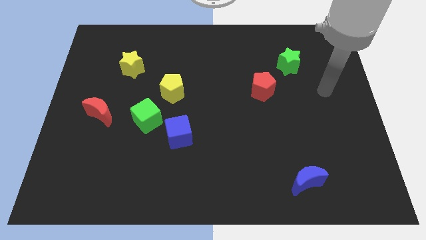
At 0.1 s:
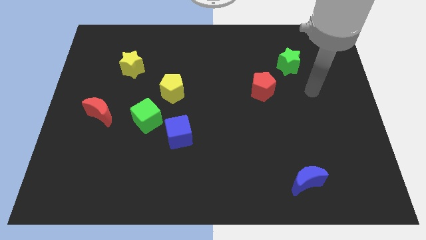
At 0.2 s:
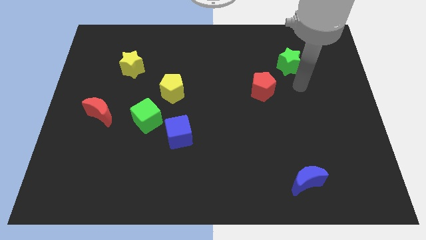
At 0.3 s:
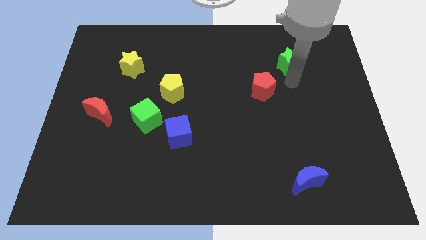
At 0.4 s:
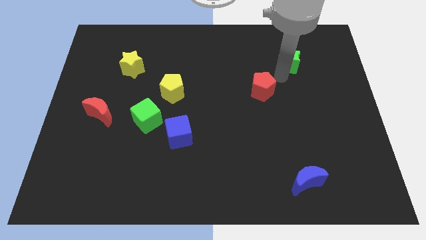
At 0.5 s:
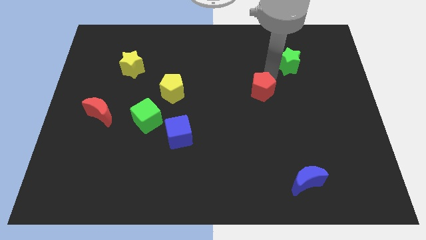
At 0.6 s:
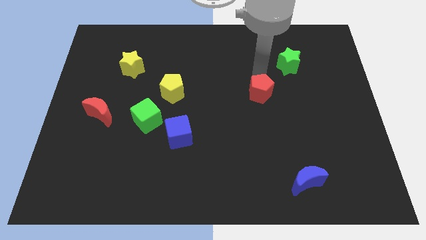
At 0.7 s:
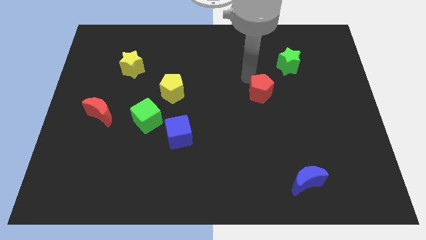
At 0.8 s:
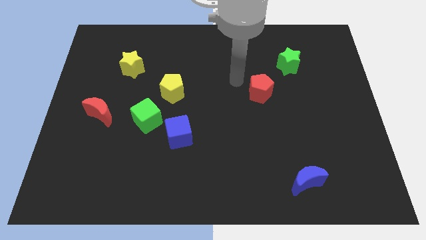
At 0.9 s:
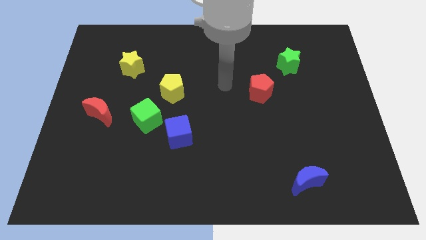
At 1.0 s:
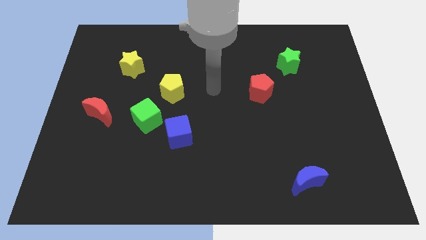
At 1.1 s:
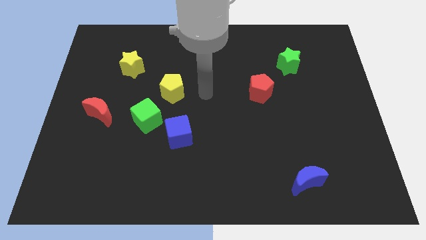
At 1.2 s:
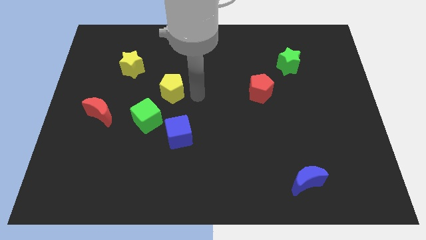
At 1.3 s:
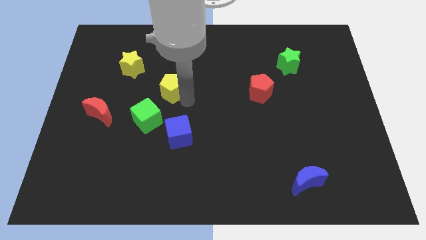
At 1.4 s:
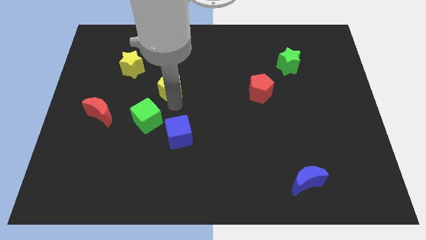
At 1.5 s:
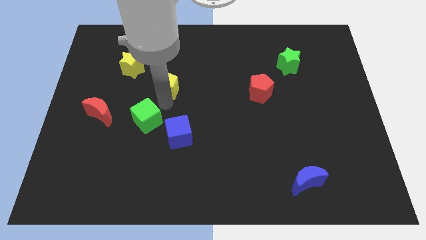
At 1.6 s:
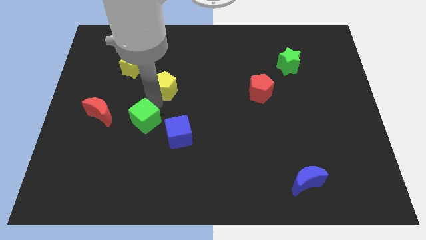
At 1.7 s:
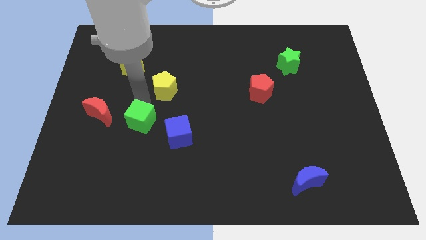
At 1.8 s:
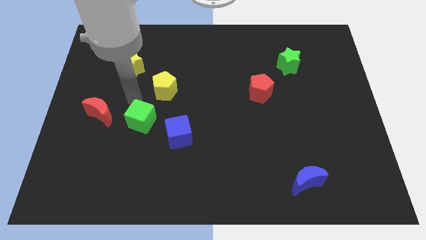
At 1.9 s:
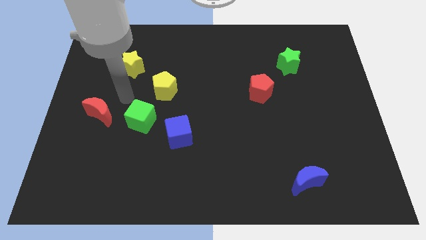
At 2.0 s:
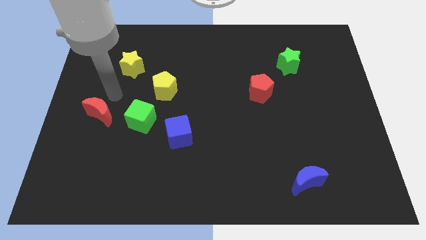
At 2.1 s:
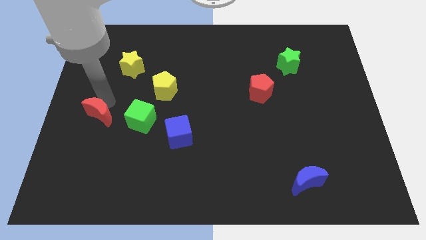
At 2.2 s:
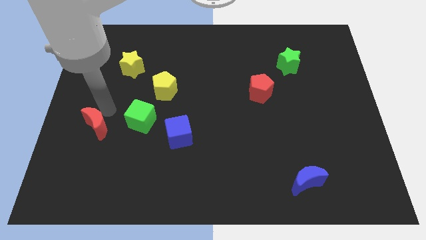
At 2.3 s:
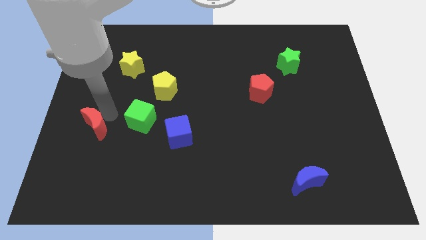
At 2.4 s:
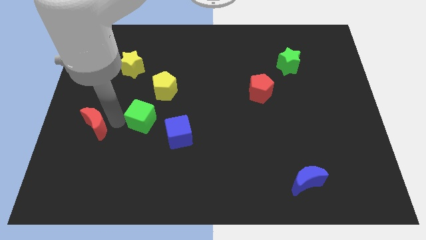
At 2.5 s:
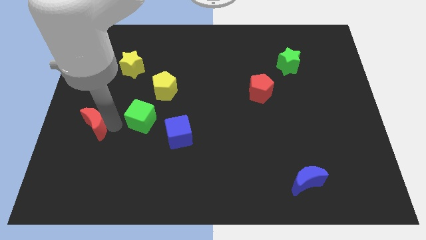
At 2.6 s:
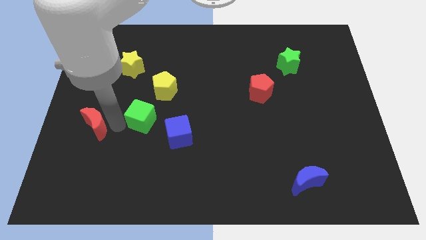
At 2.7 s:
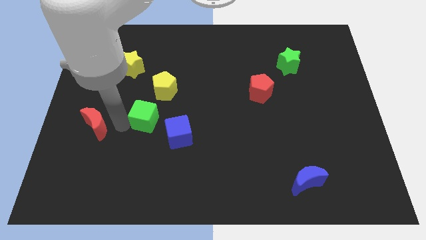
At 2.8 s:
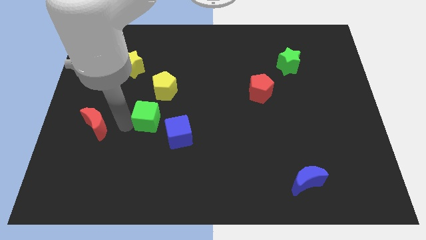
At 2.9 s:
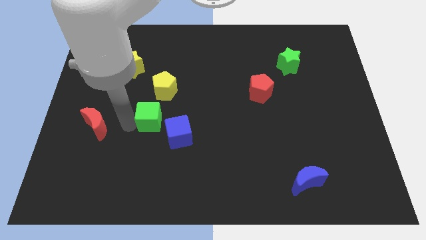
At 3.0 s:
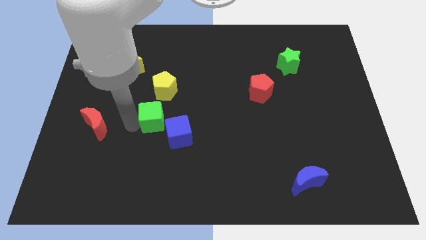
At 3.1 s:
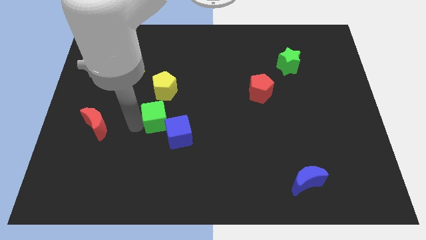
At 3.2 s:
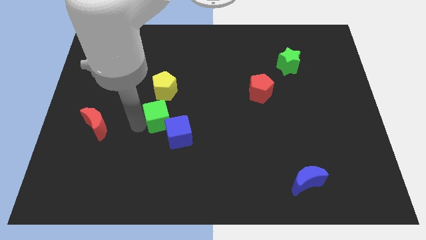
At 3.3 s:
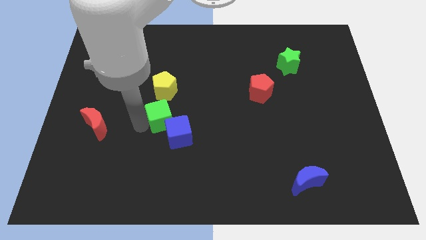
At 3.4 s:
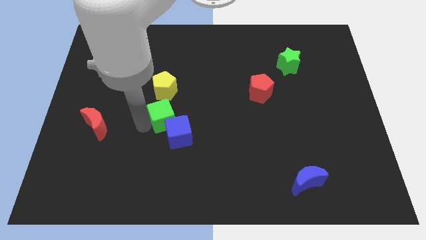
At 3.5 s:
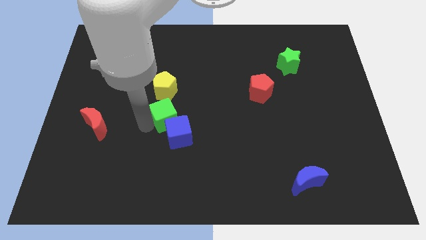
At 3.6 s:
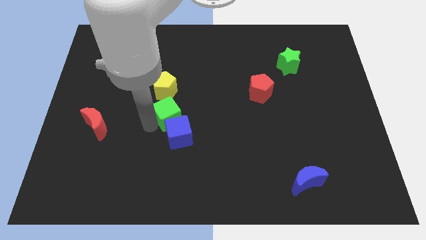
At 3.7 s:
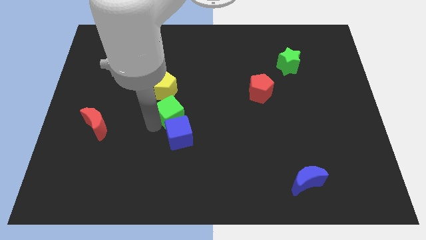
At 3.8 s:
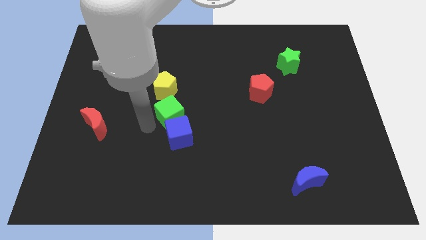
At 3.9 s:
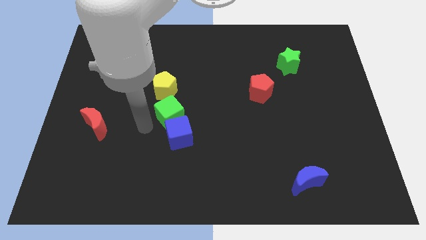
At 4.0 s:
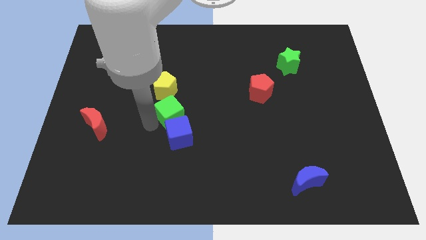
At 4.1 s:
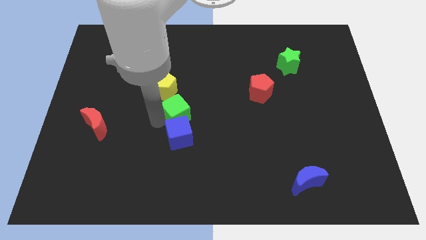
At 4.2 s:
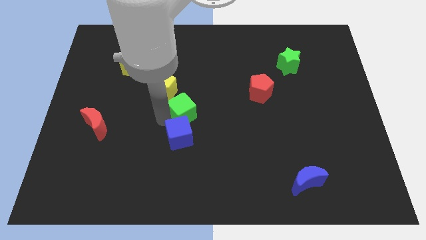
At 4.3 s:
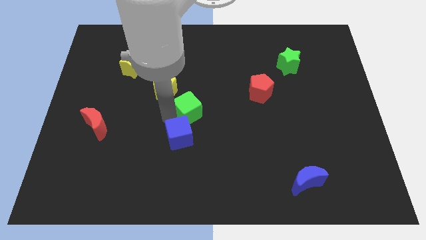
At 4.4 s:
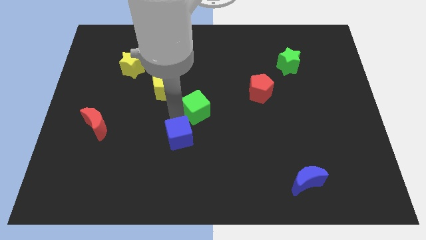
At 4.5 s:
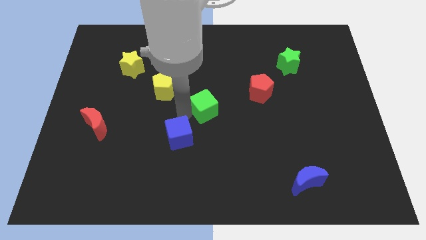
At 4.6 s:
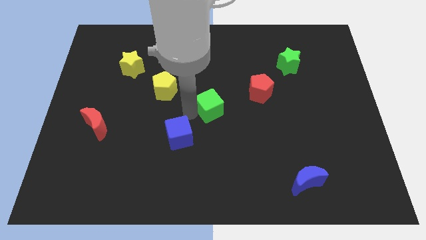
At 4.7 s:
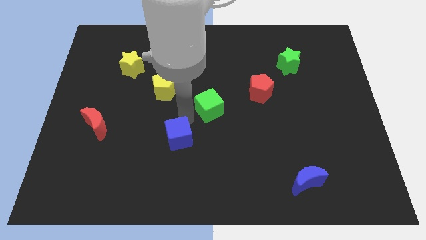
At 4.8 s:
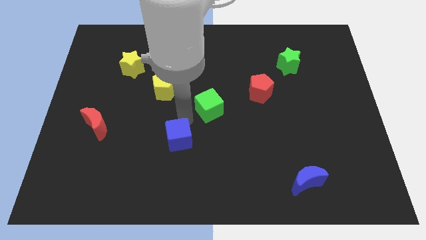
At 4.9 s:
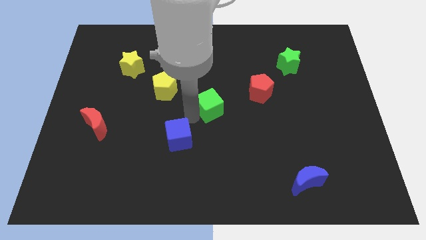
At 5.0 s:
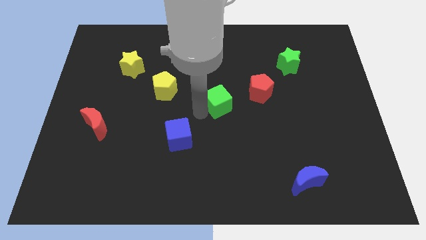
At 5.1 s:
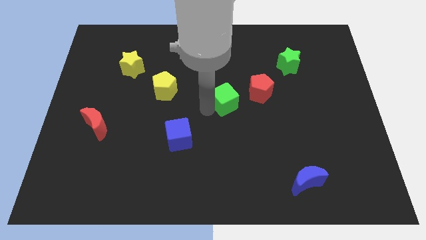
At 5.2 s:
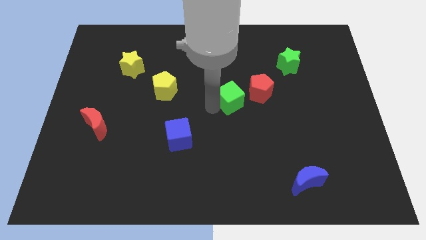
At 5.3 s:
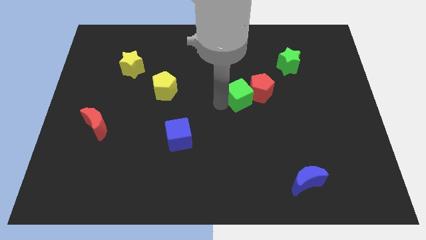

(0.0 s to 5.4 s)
move the green cube towards the red pentagon

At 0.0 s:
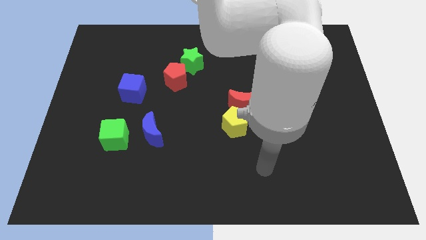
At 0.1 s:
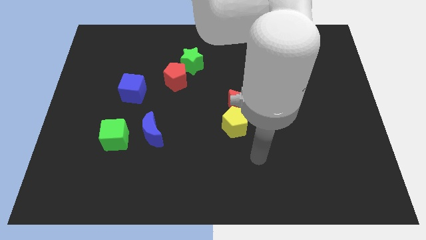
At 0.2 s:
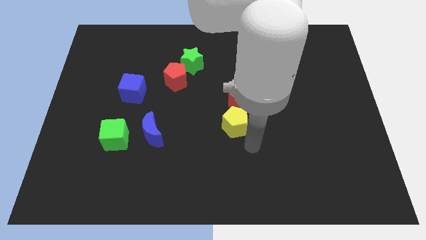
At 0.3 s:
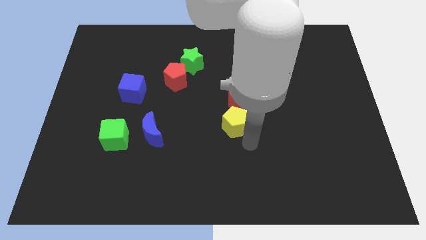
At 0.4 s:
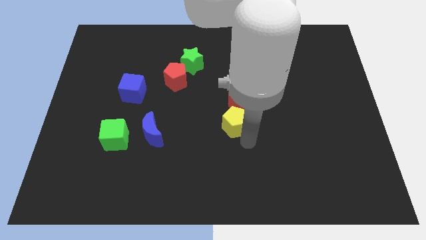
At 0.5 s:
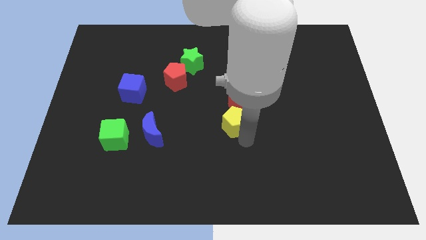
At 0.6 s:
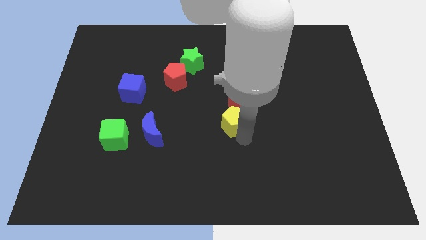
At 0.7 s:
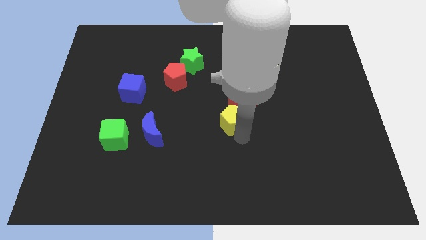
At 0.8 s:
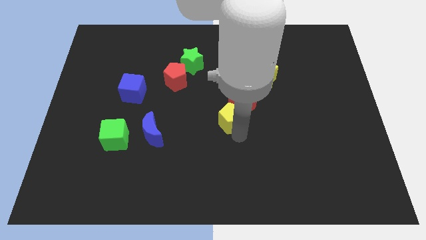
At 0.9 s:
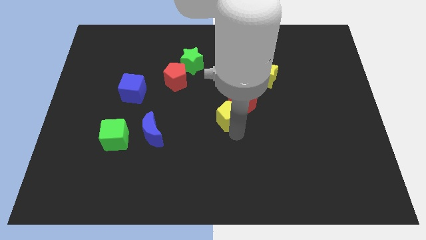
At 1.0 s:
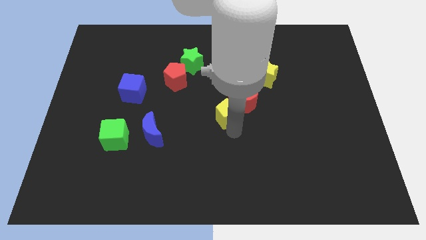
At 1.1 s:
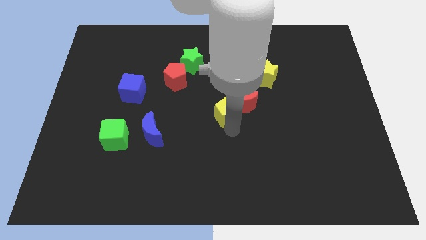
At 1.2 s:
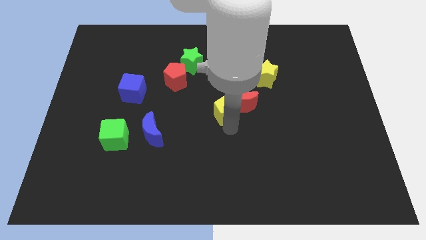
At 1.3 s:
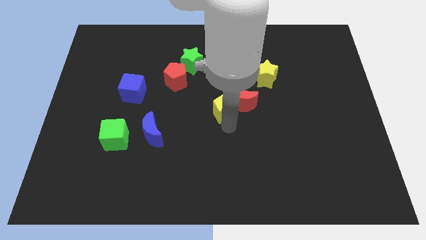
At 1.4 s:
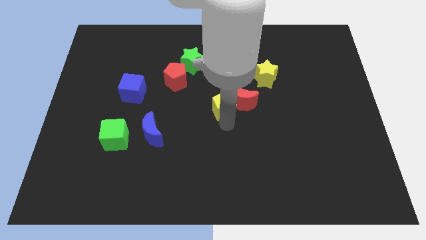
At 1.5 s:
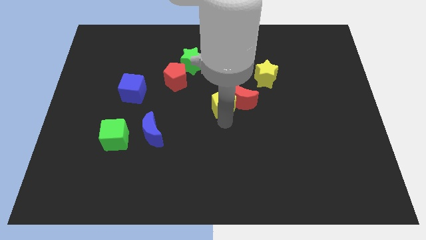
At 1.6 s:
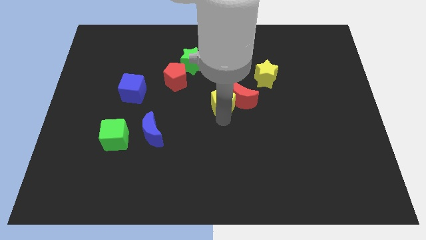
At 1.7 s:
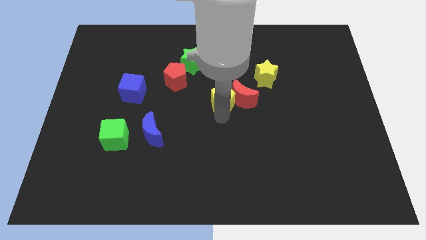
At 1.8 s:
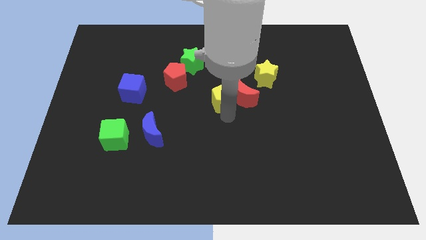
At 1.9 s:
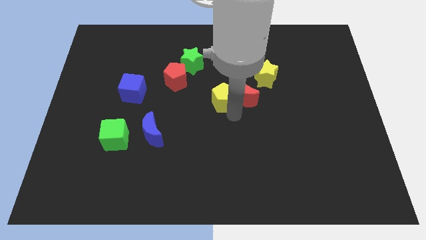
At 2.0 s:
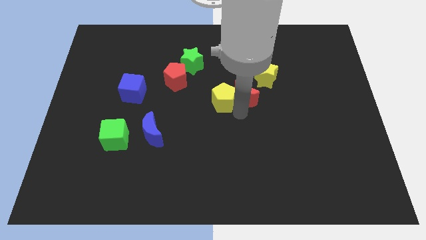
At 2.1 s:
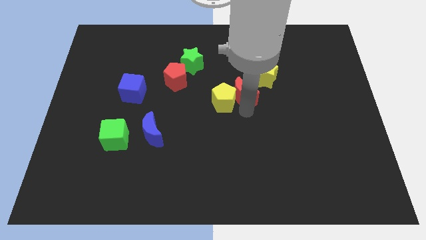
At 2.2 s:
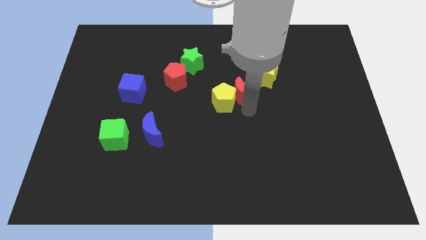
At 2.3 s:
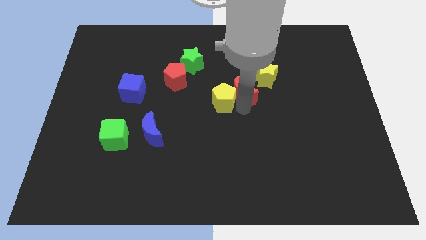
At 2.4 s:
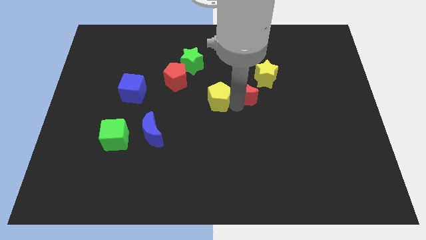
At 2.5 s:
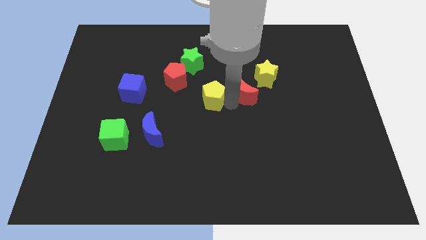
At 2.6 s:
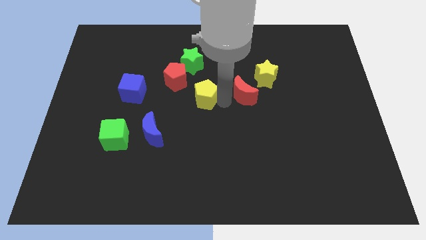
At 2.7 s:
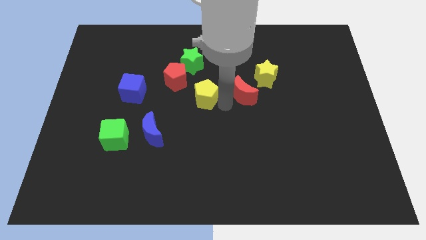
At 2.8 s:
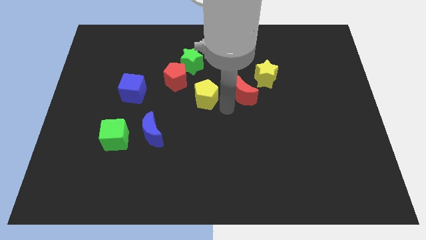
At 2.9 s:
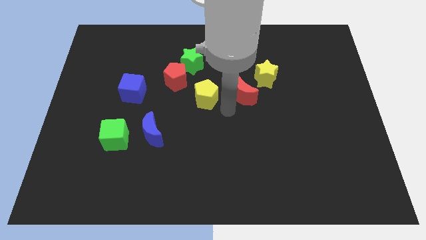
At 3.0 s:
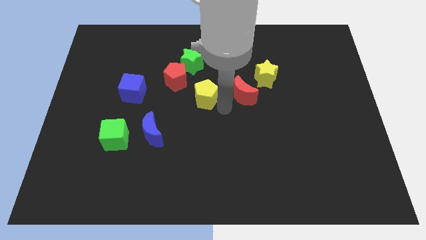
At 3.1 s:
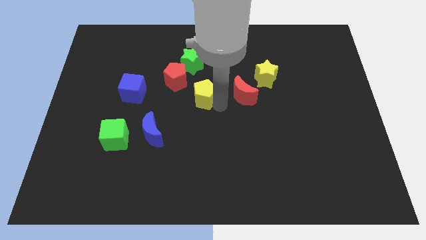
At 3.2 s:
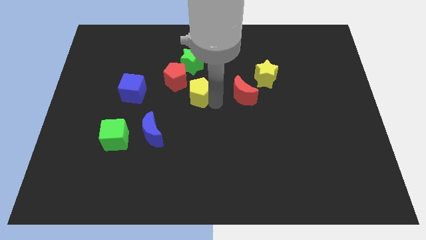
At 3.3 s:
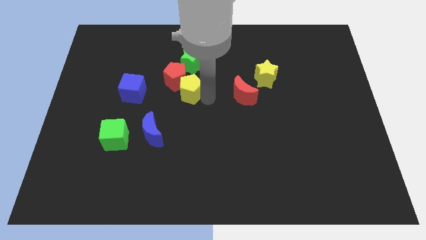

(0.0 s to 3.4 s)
push the yellow pentagon next to the red pentagon
